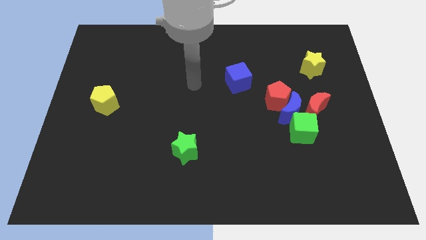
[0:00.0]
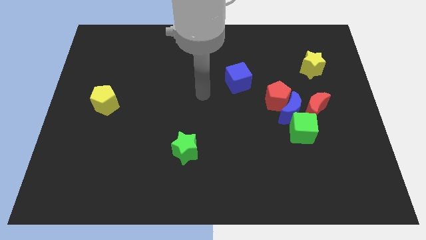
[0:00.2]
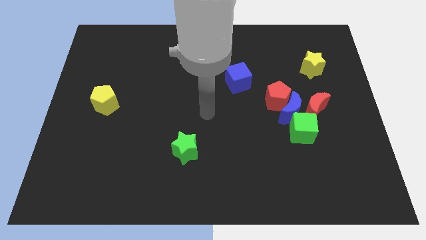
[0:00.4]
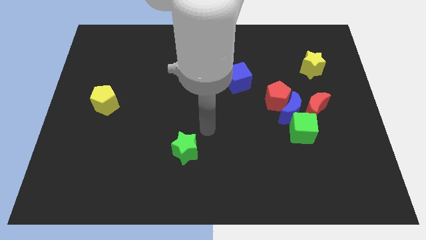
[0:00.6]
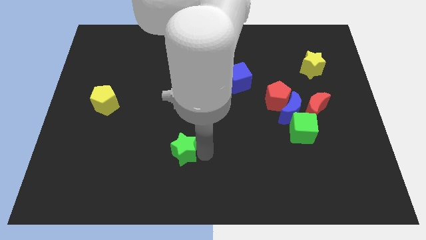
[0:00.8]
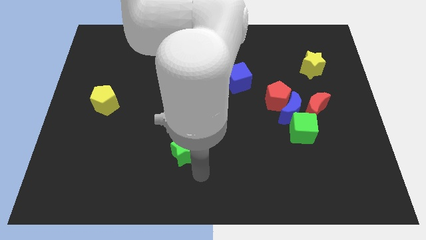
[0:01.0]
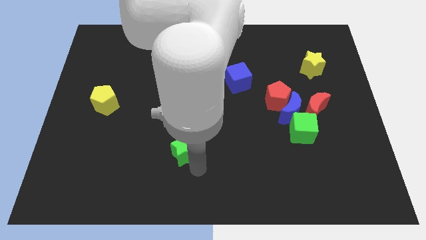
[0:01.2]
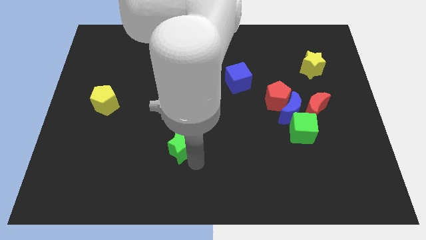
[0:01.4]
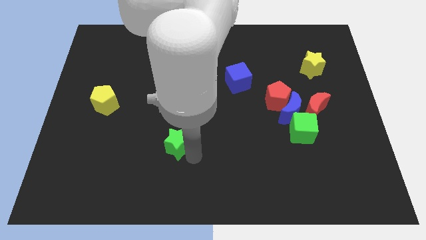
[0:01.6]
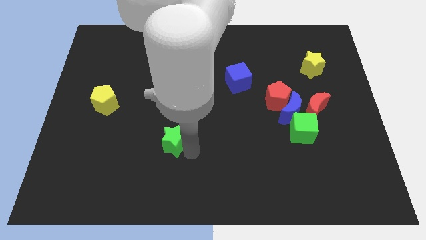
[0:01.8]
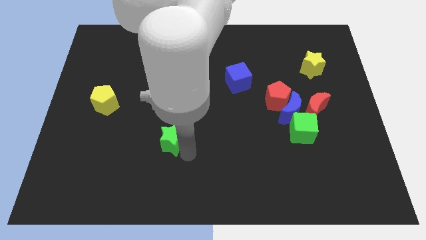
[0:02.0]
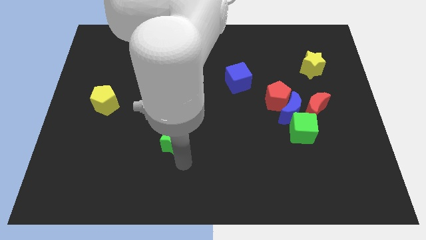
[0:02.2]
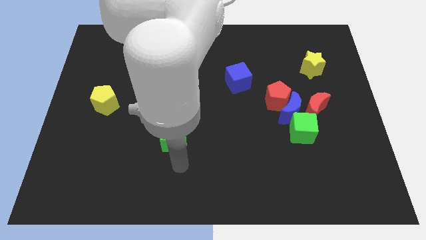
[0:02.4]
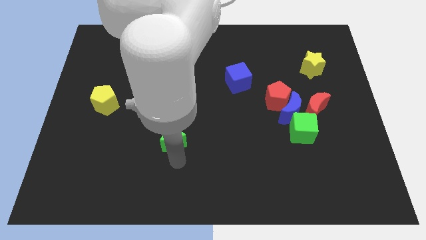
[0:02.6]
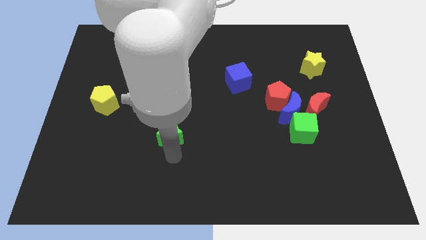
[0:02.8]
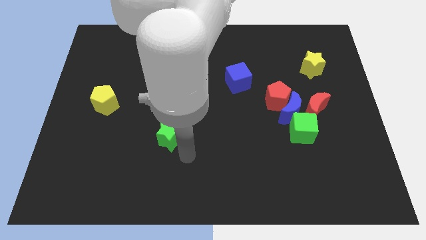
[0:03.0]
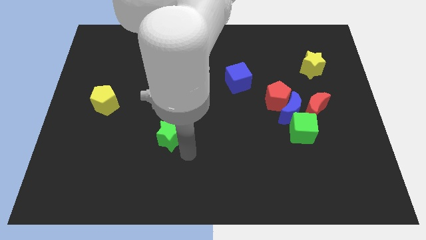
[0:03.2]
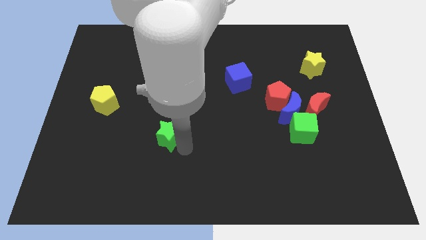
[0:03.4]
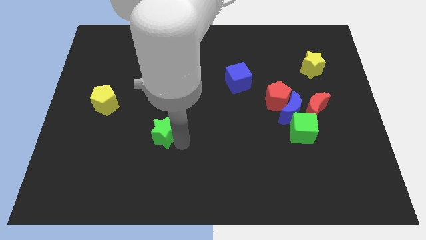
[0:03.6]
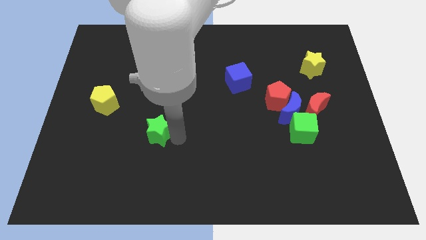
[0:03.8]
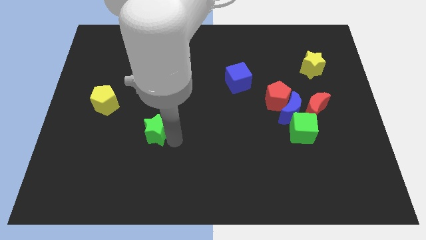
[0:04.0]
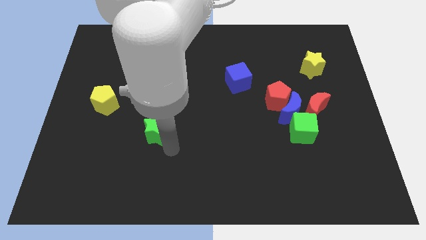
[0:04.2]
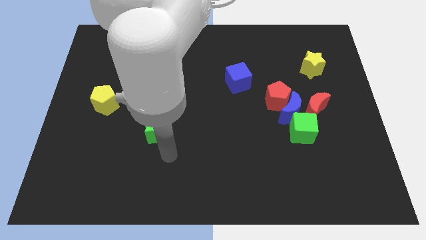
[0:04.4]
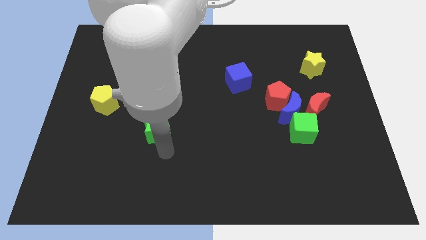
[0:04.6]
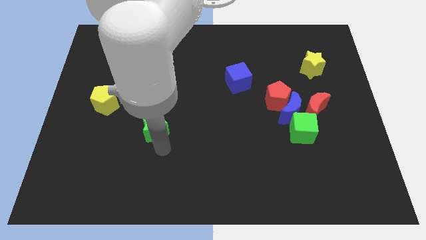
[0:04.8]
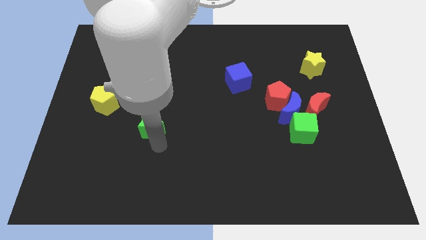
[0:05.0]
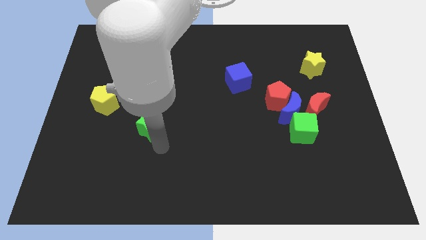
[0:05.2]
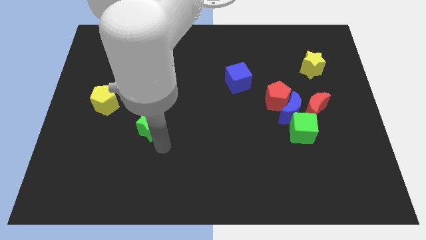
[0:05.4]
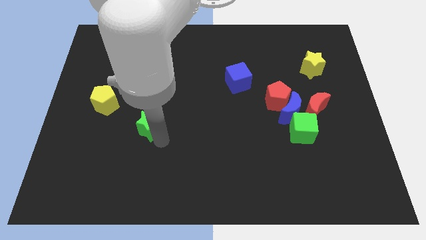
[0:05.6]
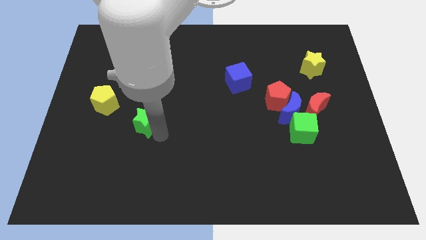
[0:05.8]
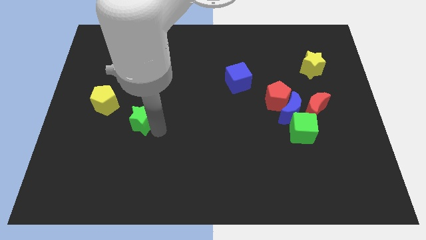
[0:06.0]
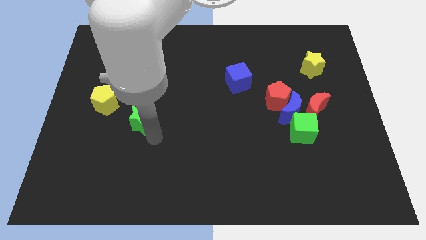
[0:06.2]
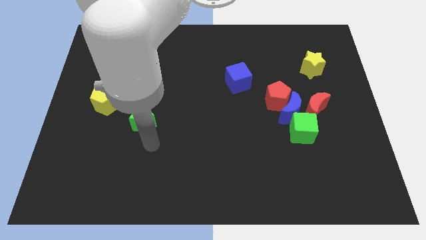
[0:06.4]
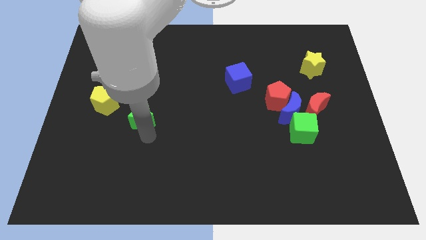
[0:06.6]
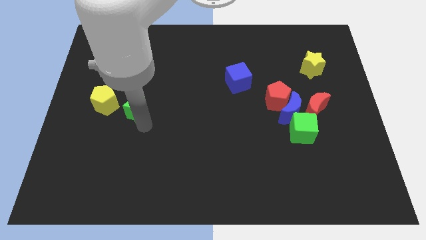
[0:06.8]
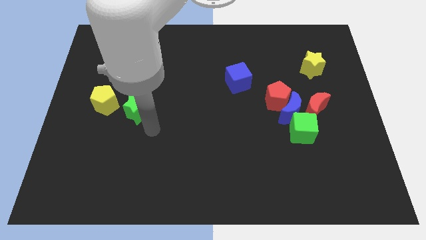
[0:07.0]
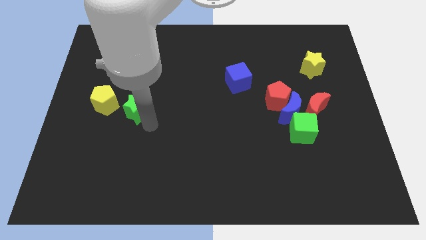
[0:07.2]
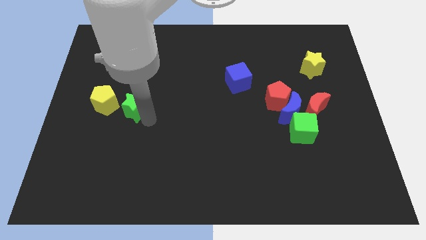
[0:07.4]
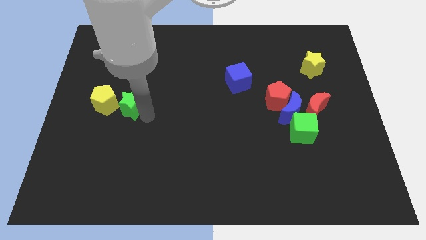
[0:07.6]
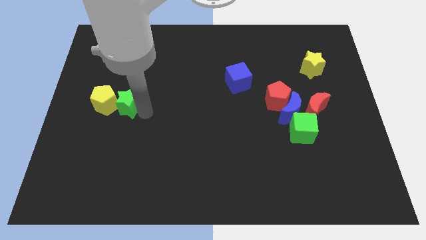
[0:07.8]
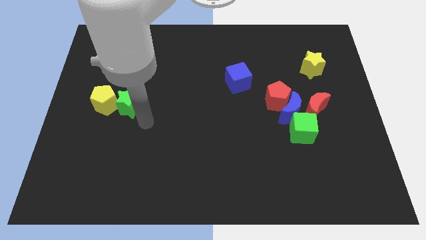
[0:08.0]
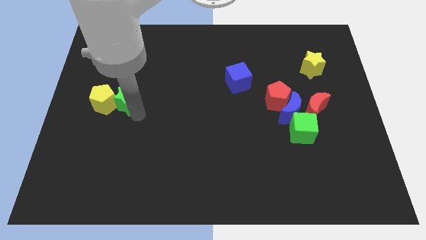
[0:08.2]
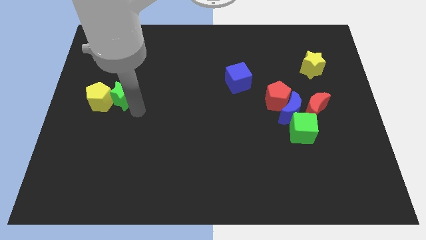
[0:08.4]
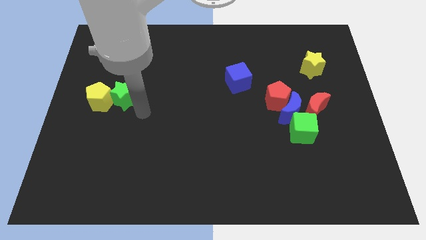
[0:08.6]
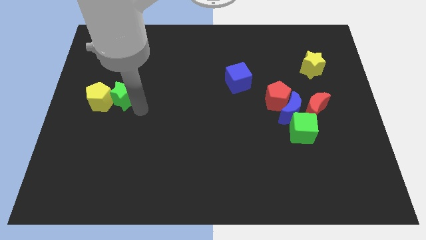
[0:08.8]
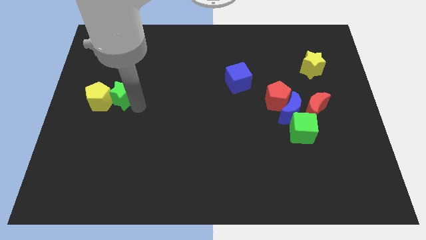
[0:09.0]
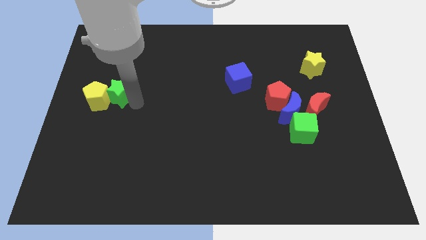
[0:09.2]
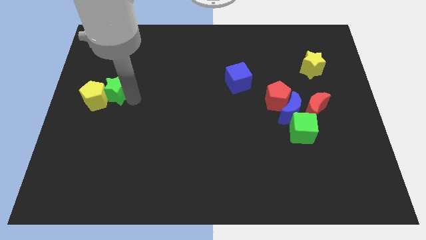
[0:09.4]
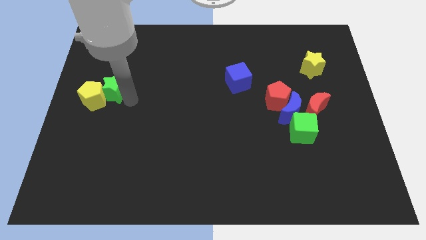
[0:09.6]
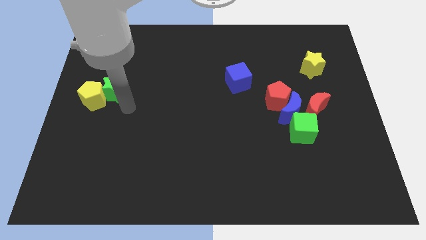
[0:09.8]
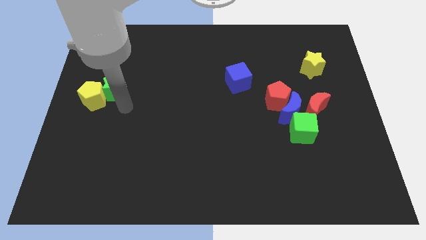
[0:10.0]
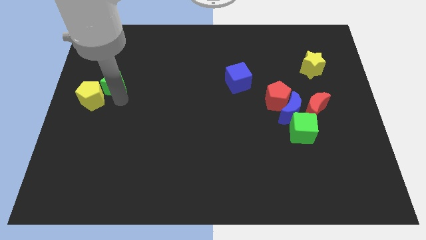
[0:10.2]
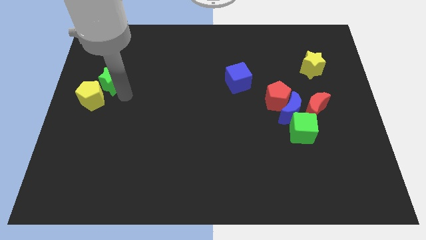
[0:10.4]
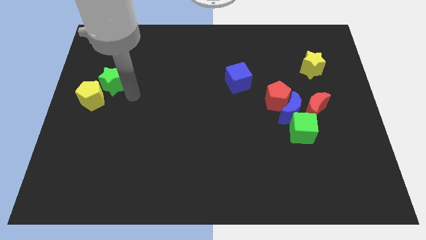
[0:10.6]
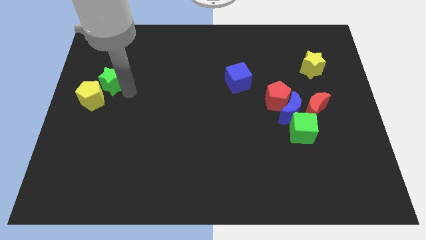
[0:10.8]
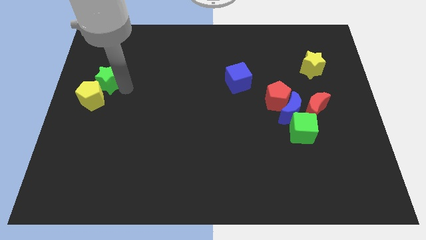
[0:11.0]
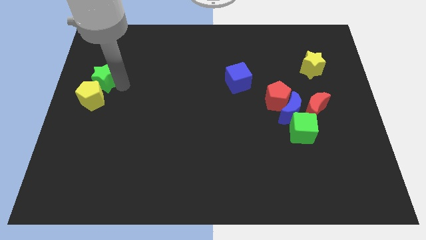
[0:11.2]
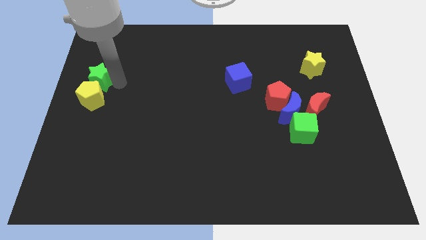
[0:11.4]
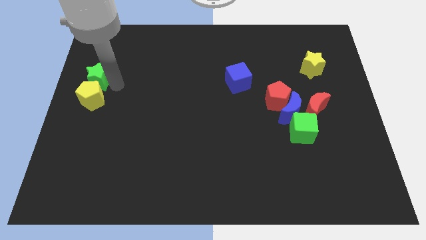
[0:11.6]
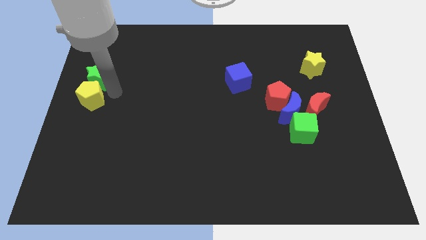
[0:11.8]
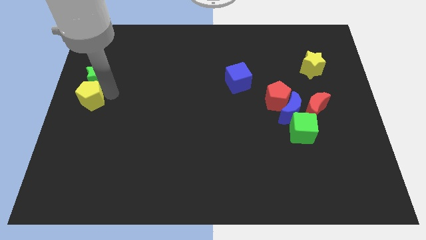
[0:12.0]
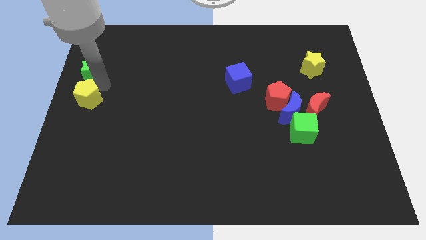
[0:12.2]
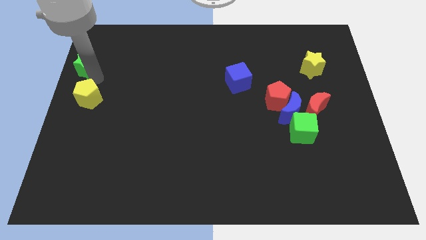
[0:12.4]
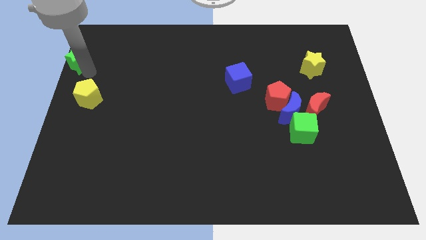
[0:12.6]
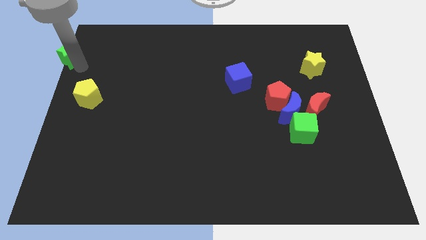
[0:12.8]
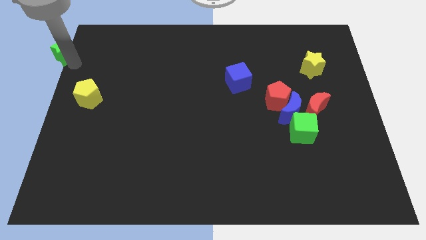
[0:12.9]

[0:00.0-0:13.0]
put the green star to the top left of the board

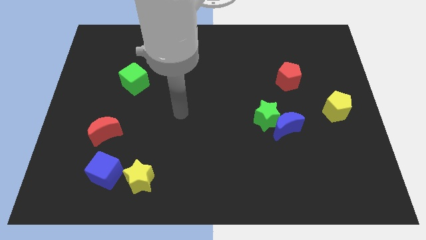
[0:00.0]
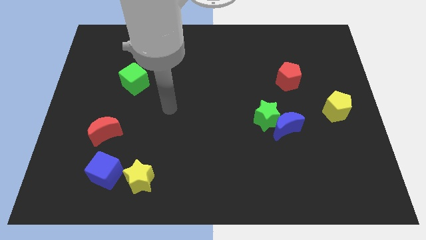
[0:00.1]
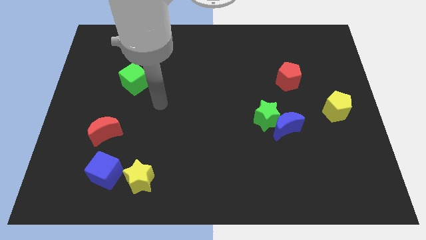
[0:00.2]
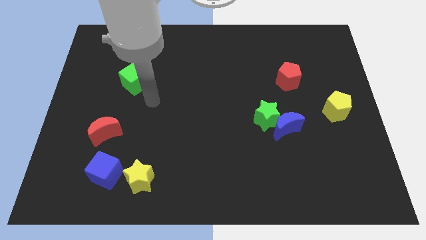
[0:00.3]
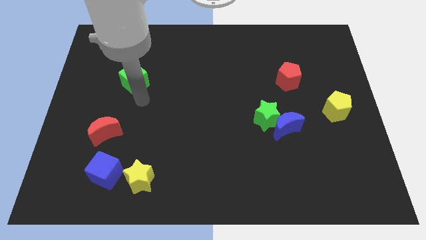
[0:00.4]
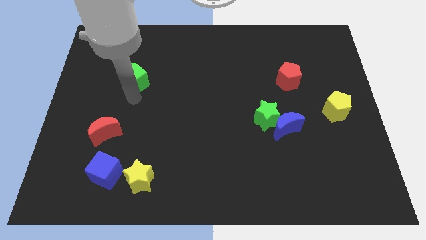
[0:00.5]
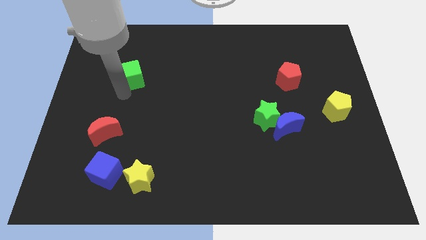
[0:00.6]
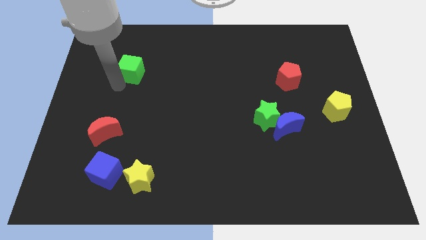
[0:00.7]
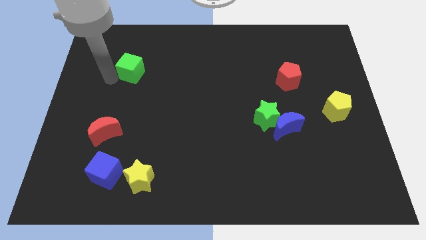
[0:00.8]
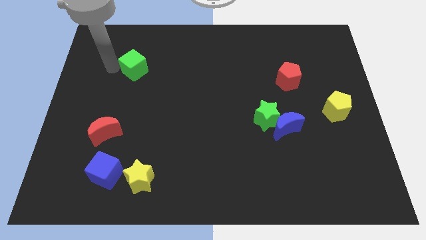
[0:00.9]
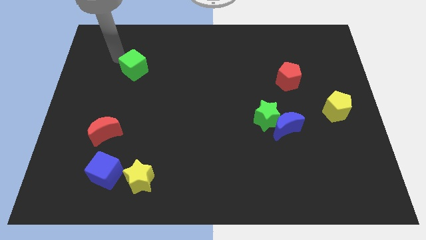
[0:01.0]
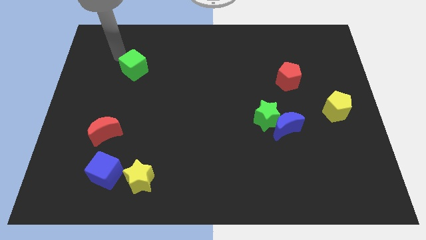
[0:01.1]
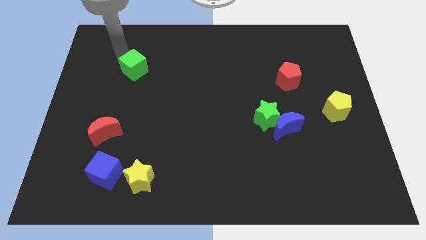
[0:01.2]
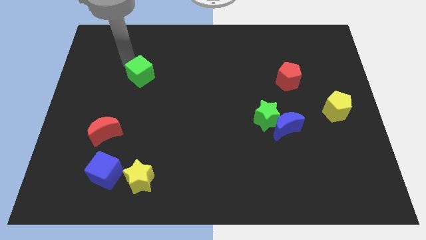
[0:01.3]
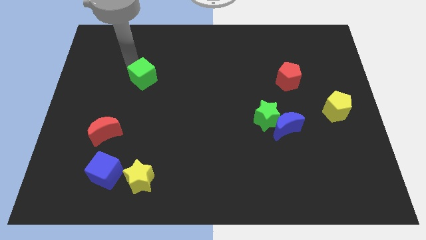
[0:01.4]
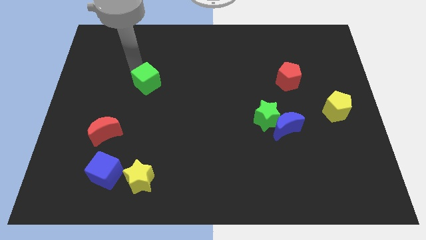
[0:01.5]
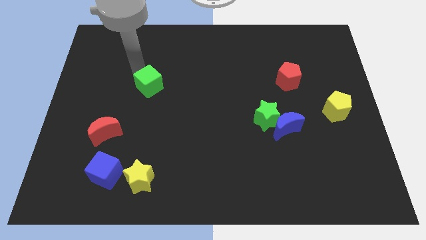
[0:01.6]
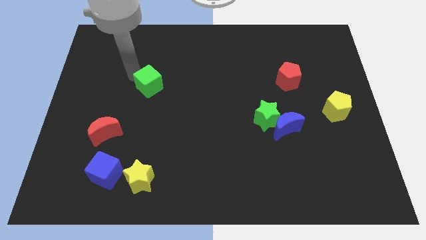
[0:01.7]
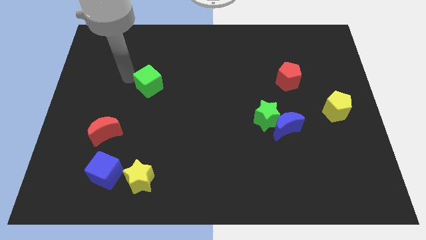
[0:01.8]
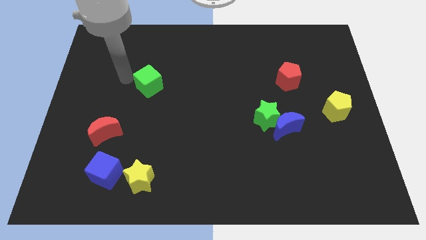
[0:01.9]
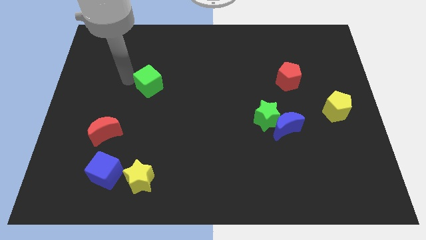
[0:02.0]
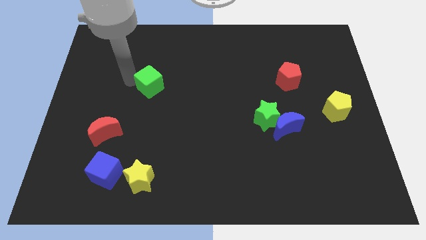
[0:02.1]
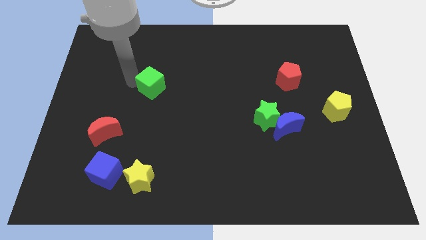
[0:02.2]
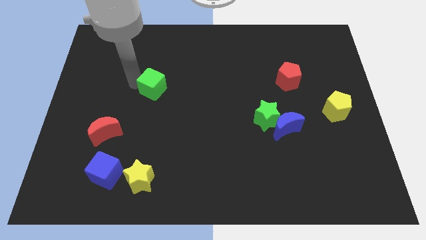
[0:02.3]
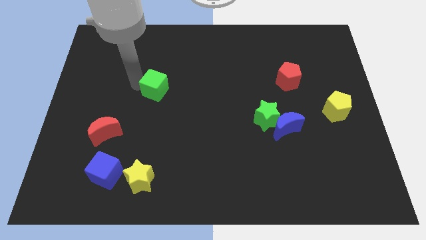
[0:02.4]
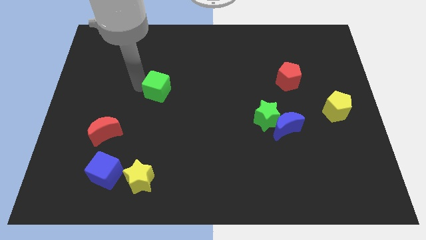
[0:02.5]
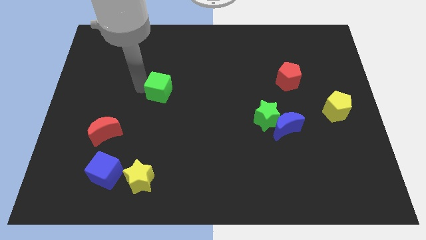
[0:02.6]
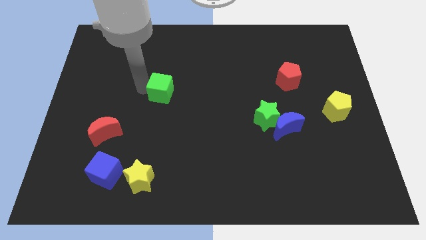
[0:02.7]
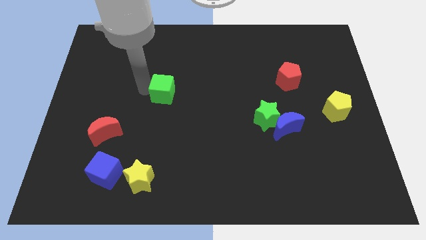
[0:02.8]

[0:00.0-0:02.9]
move the green cube to the center
